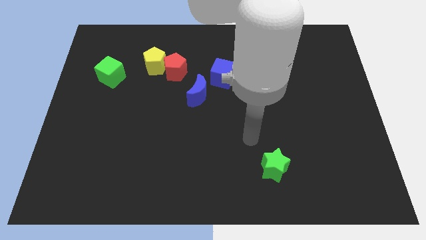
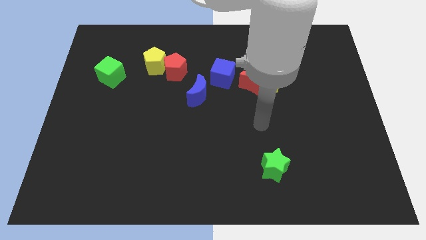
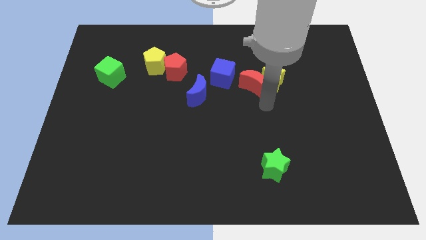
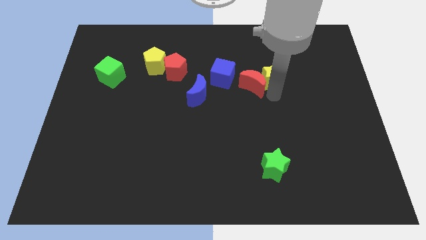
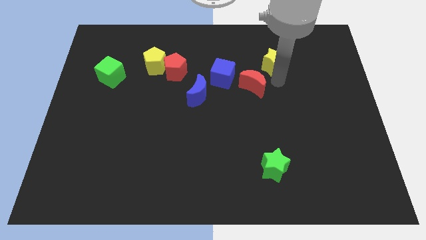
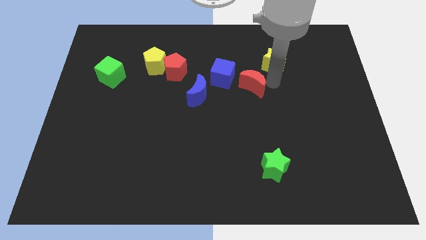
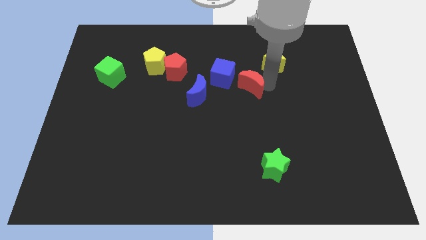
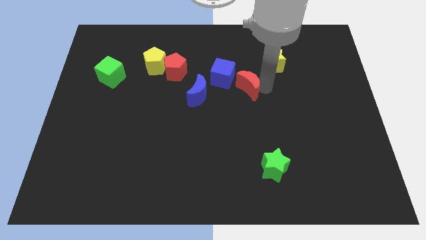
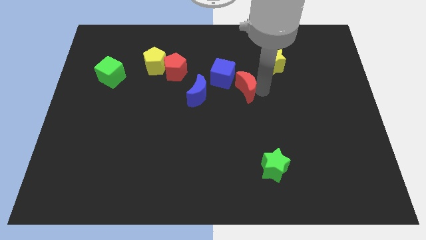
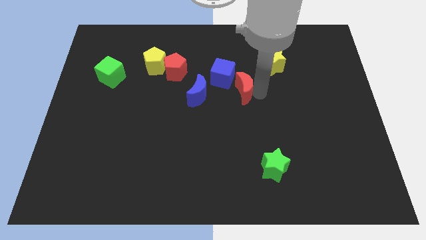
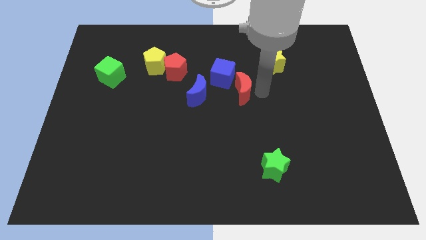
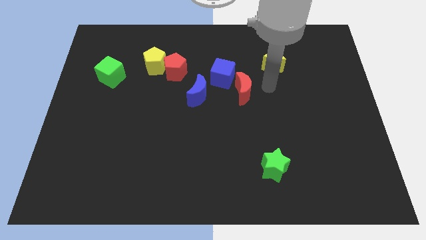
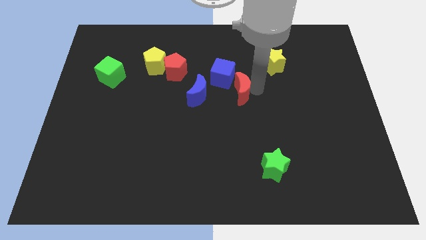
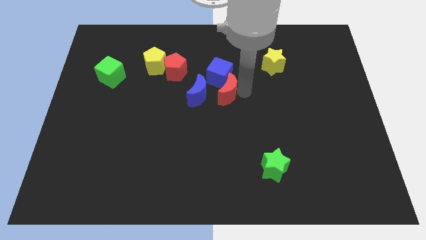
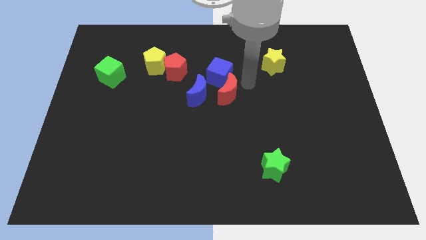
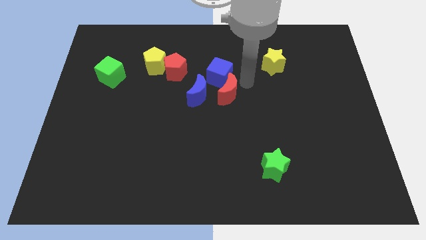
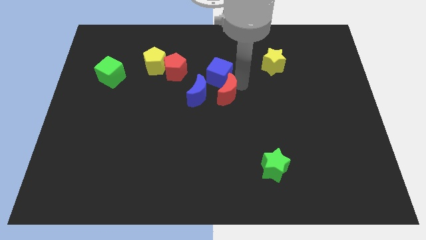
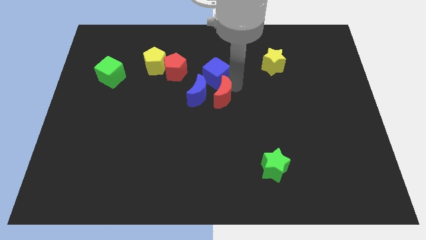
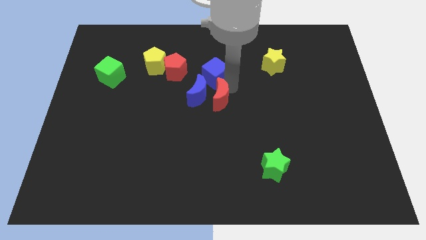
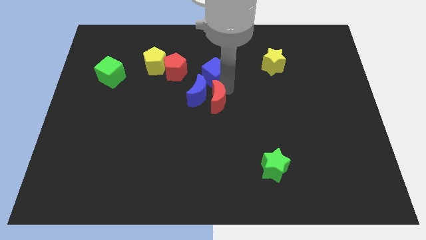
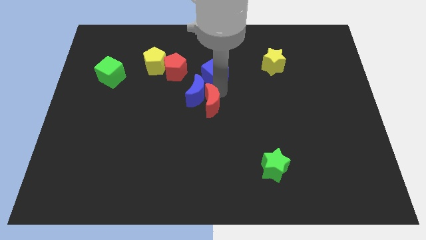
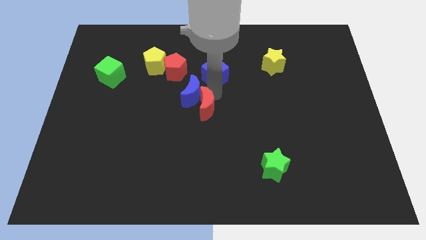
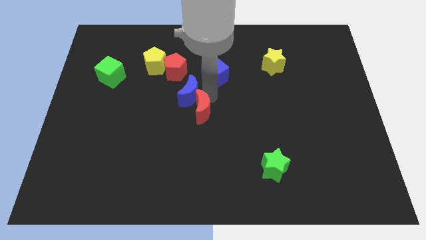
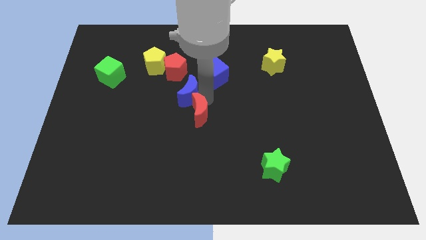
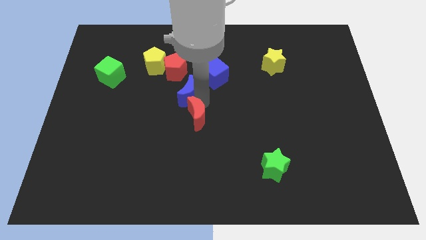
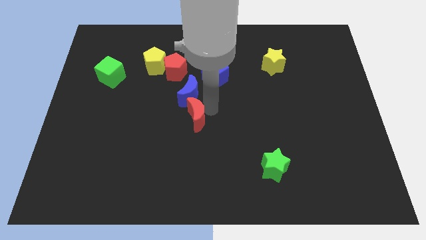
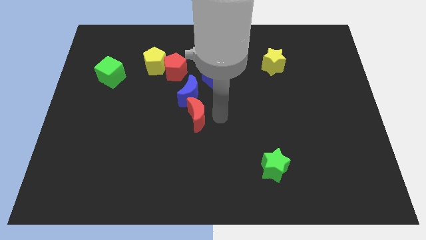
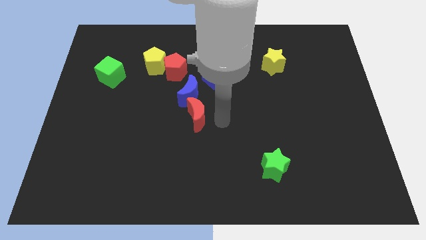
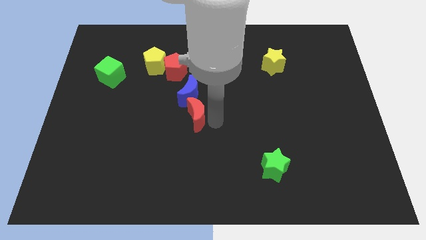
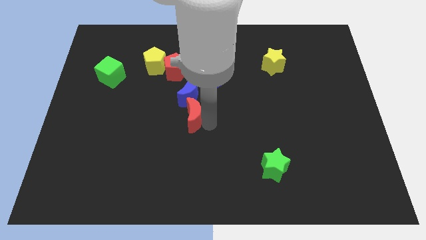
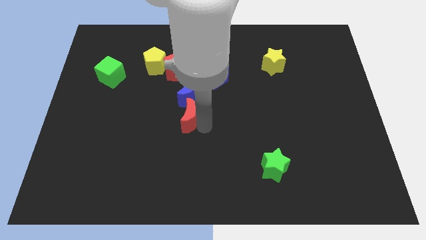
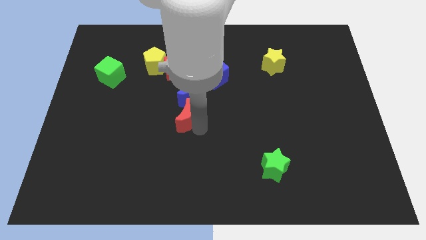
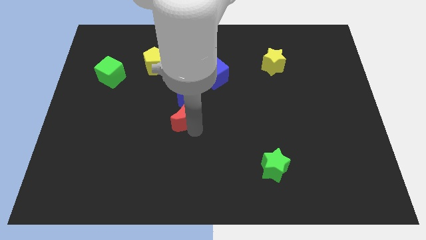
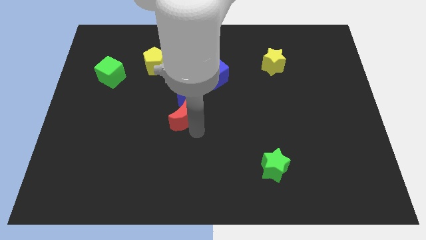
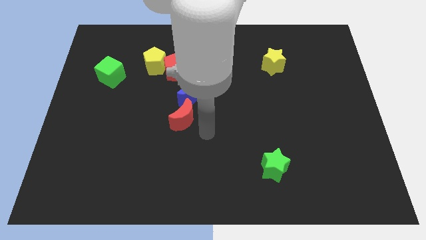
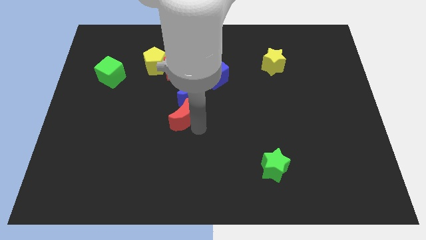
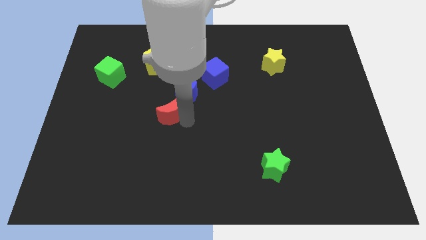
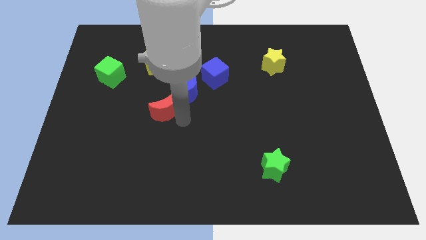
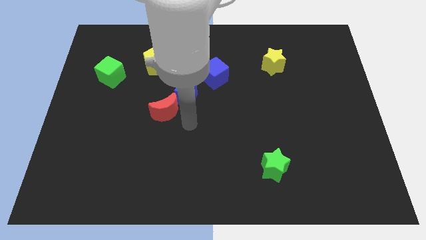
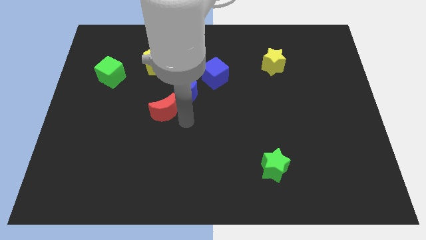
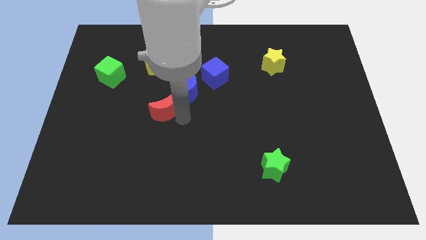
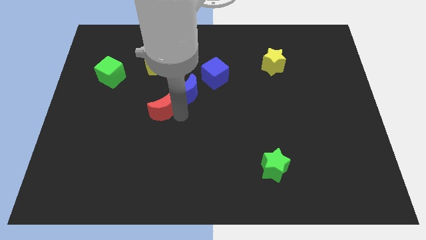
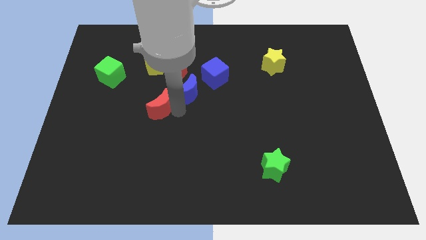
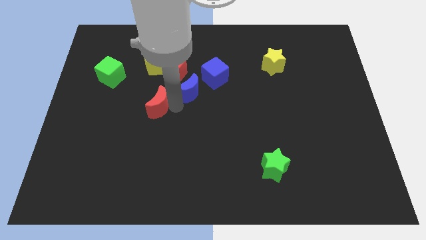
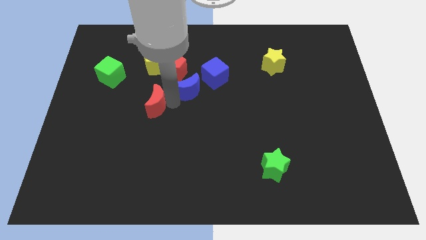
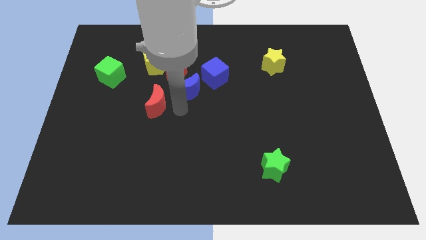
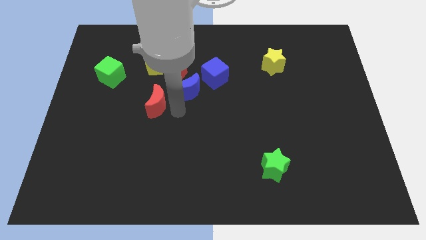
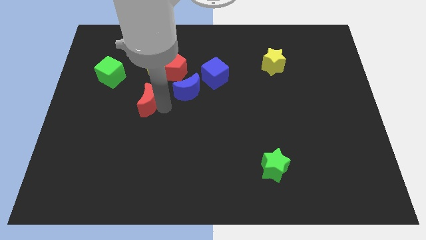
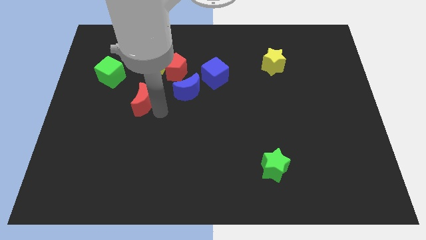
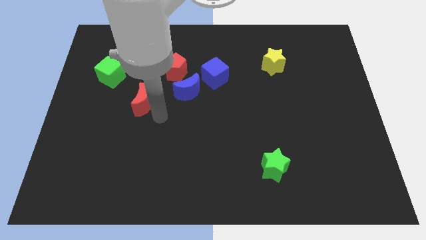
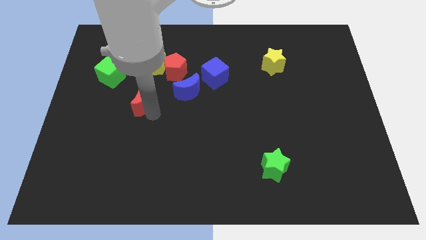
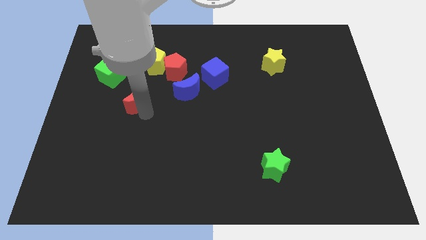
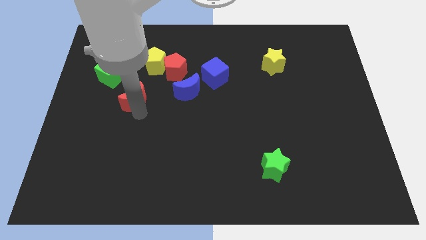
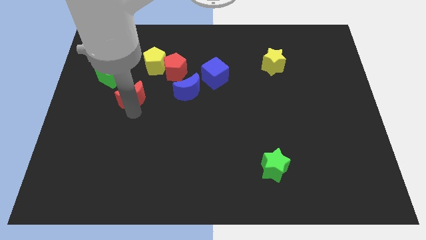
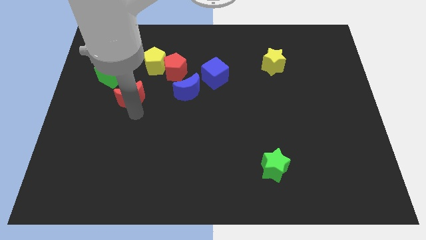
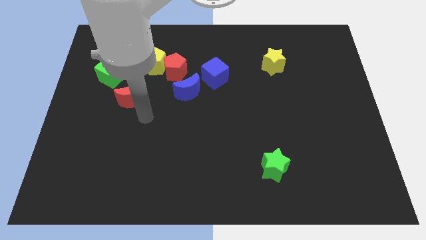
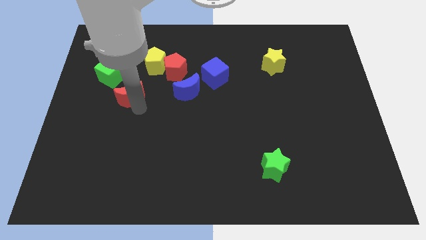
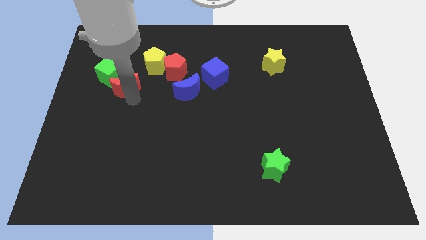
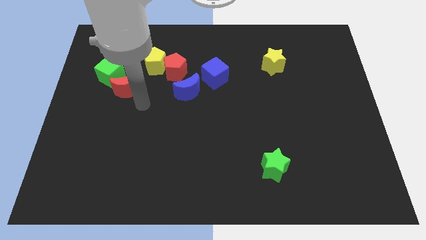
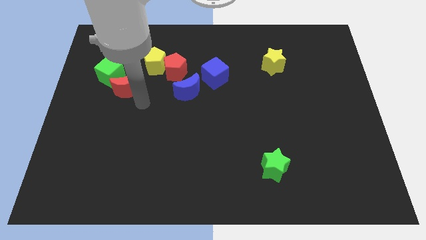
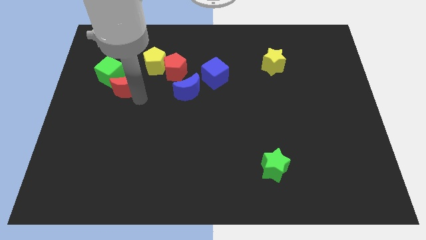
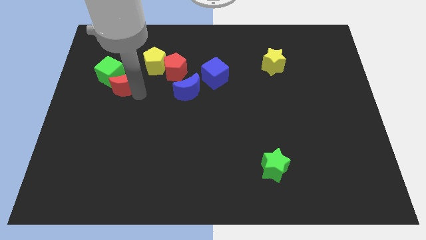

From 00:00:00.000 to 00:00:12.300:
push the red moon close to the green cube

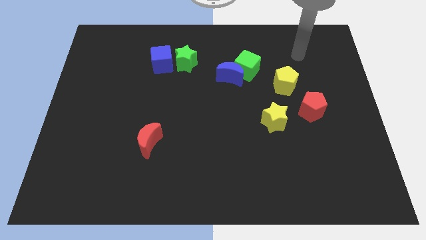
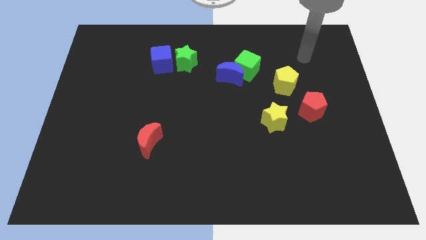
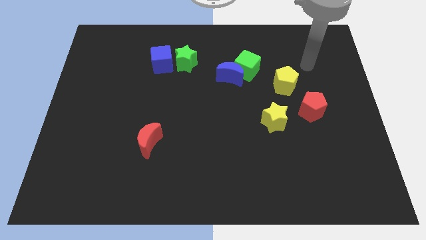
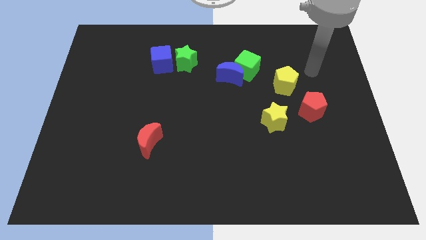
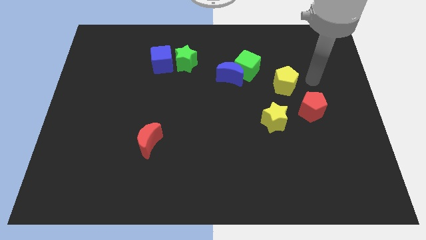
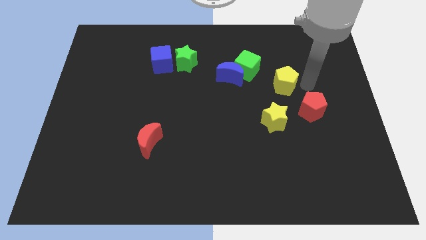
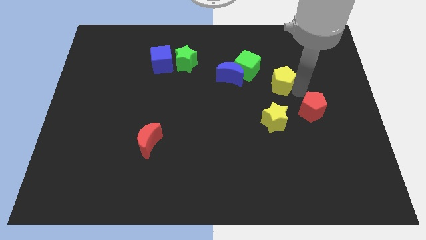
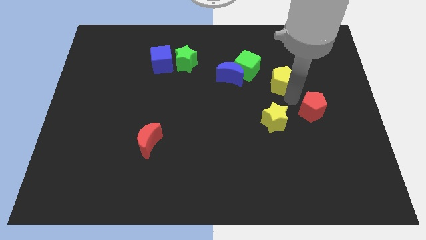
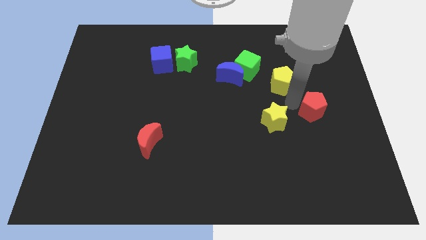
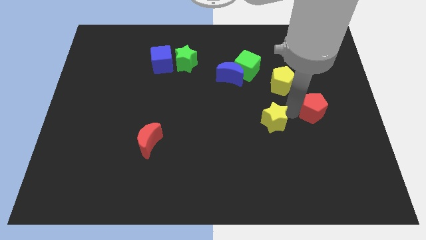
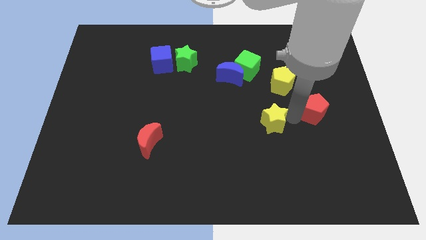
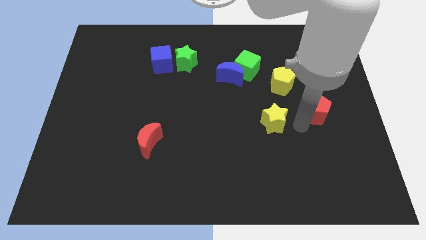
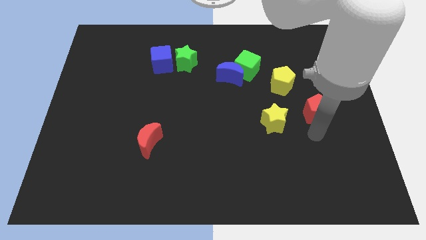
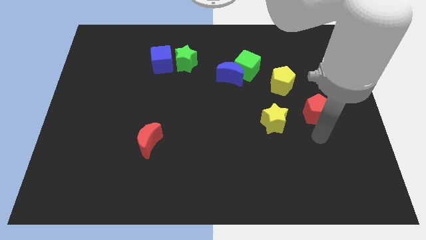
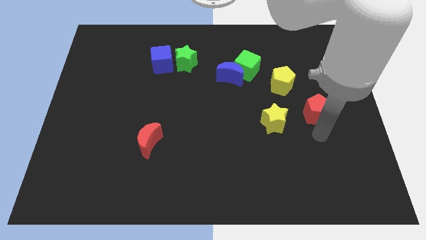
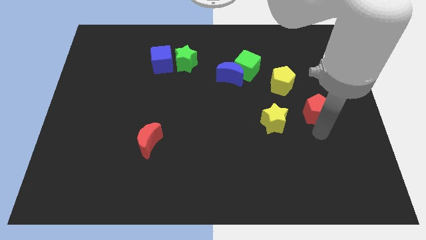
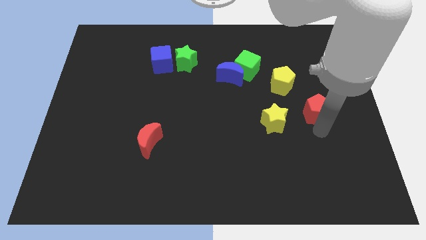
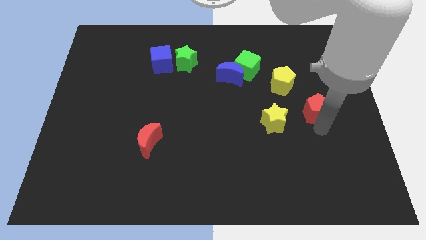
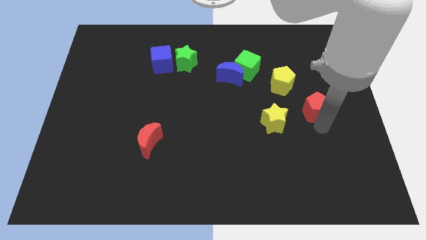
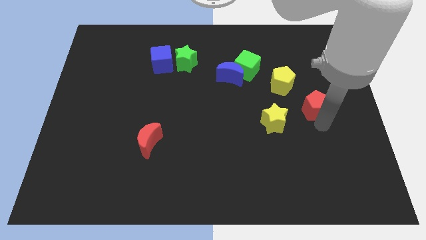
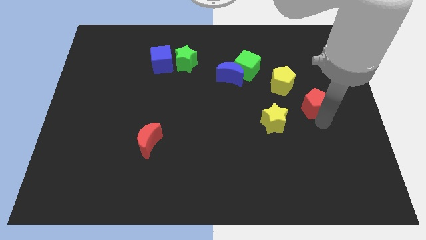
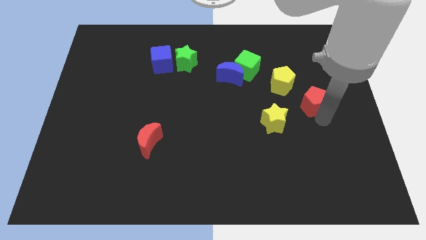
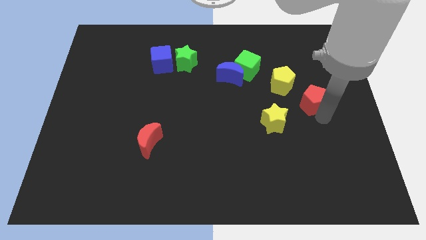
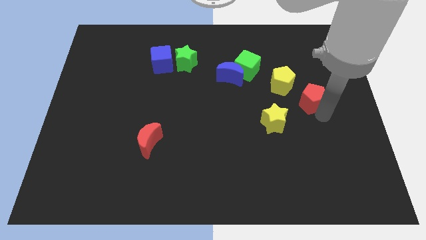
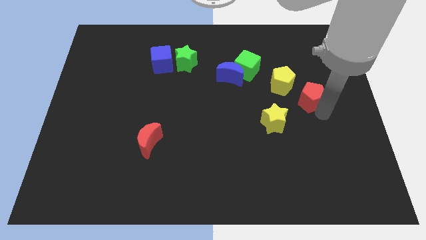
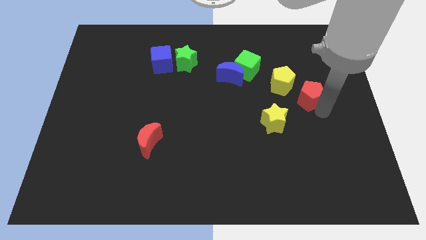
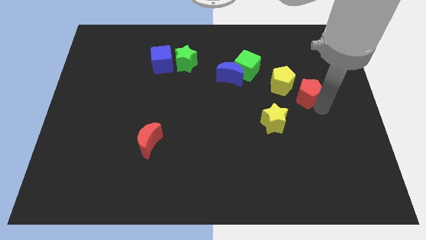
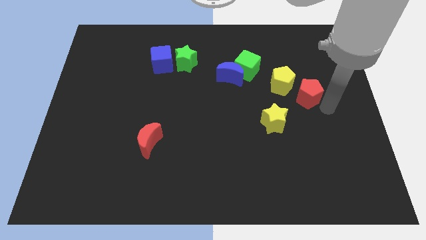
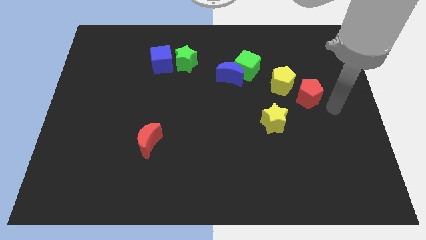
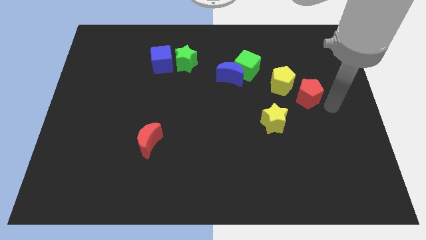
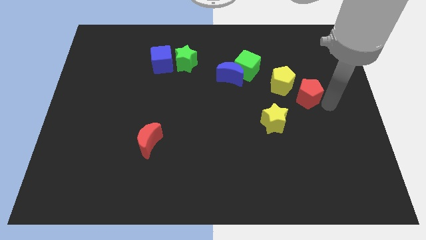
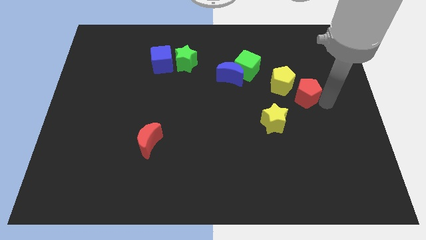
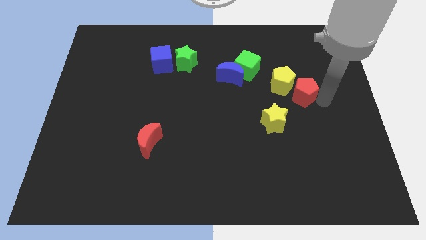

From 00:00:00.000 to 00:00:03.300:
slide the red pentagon close to the yellow pentagon
